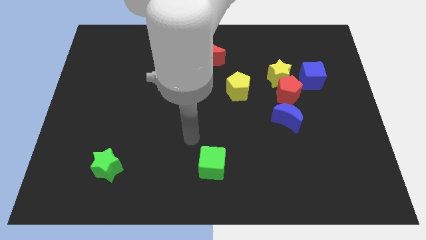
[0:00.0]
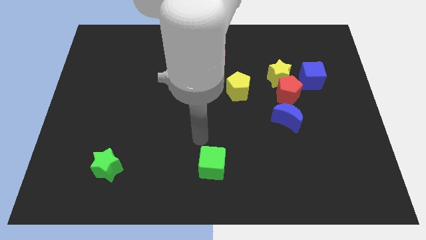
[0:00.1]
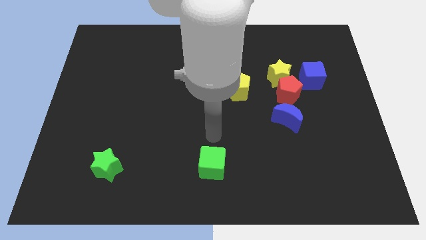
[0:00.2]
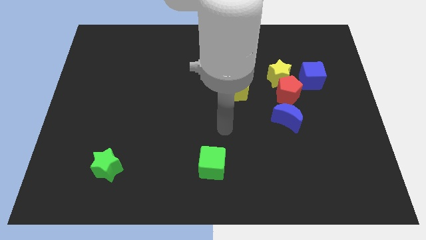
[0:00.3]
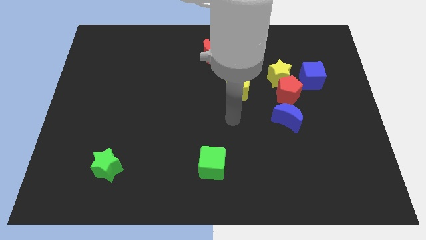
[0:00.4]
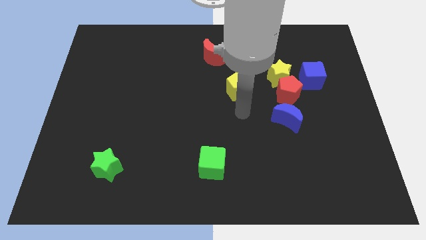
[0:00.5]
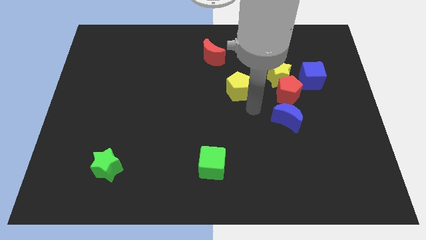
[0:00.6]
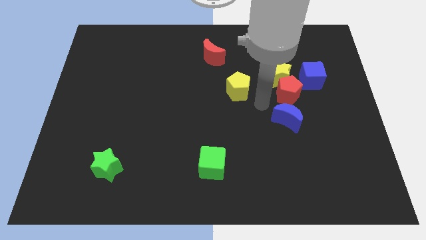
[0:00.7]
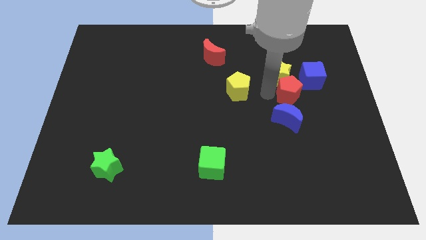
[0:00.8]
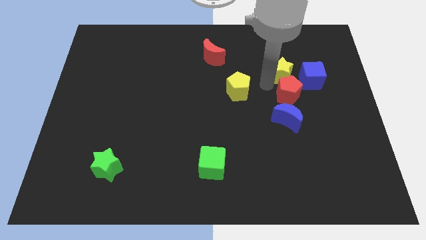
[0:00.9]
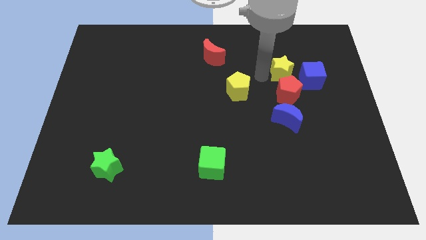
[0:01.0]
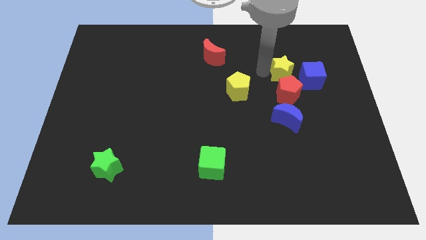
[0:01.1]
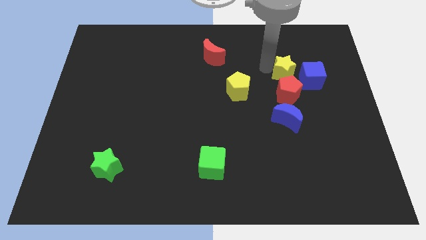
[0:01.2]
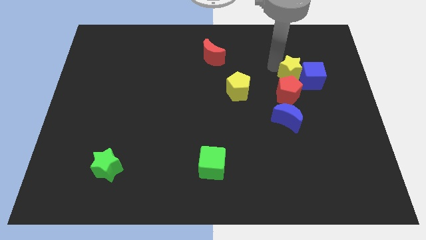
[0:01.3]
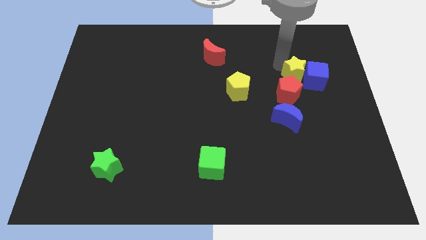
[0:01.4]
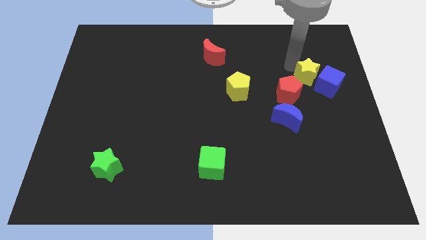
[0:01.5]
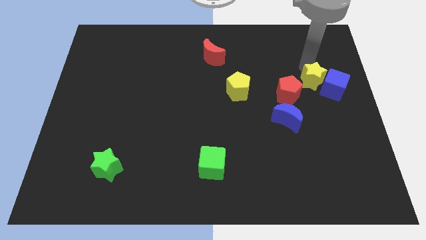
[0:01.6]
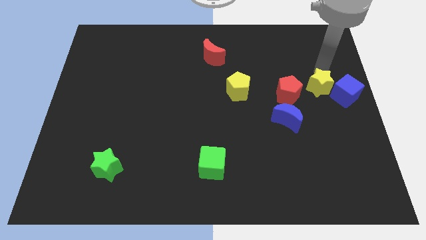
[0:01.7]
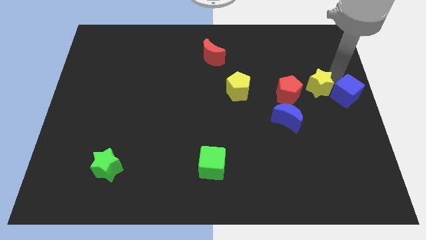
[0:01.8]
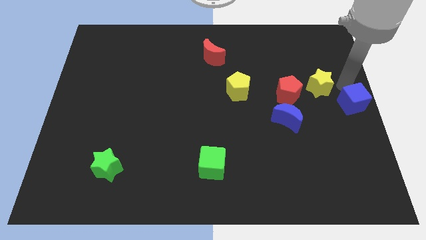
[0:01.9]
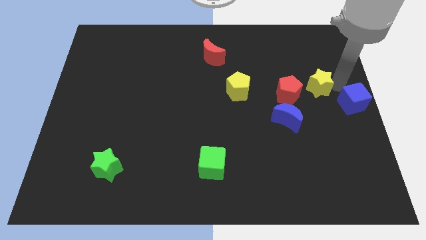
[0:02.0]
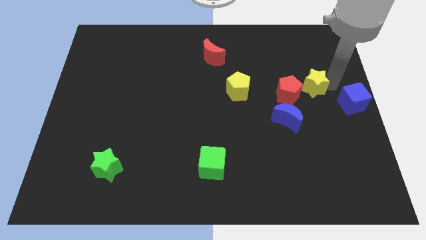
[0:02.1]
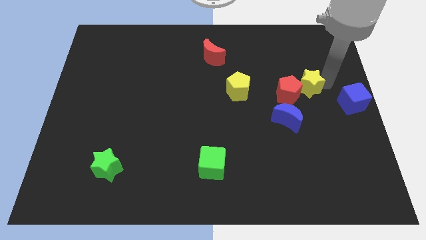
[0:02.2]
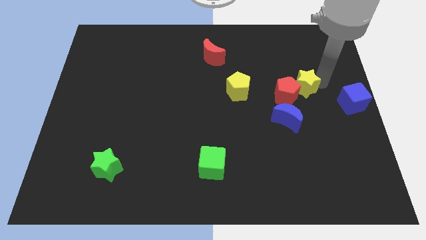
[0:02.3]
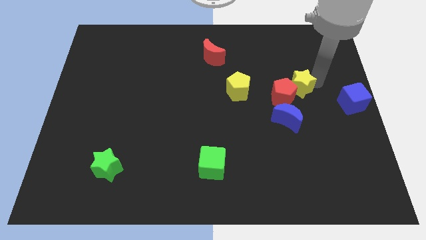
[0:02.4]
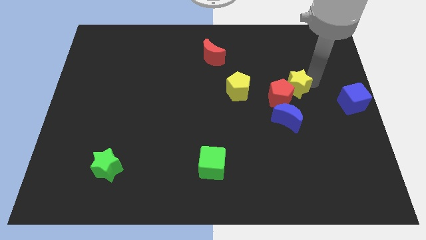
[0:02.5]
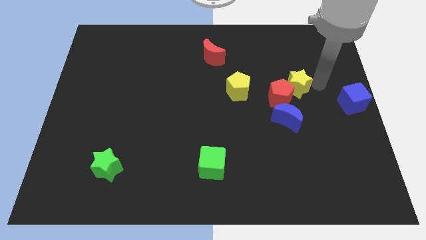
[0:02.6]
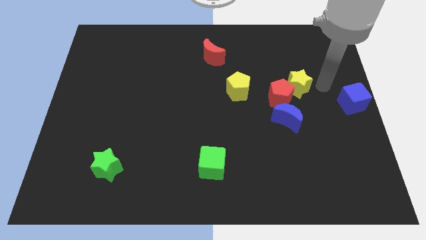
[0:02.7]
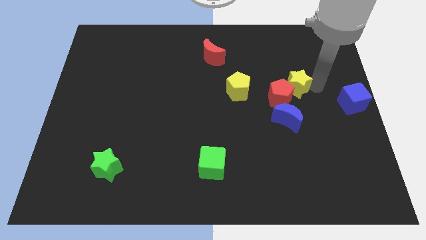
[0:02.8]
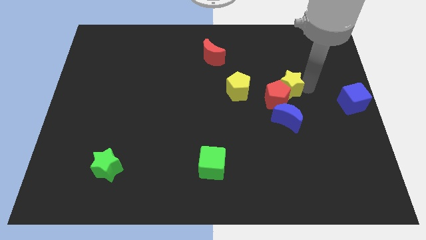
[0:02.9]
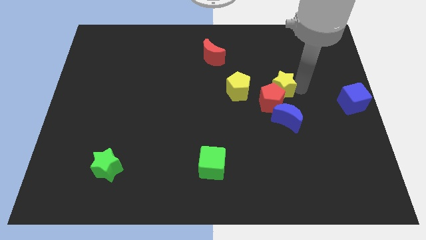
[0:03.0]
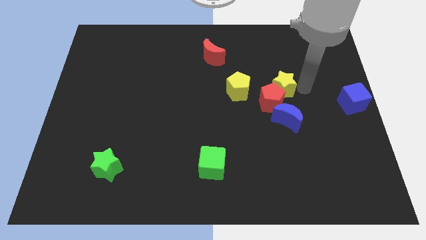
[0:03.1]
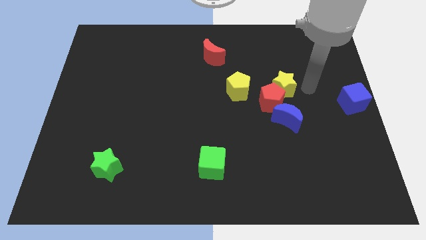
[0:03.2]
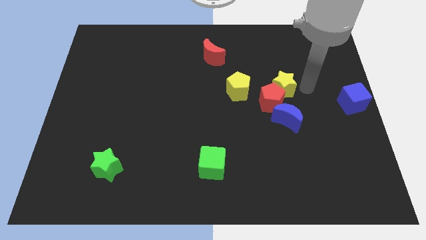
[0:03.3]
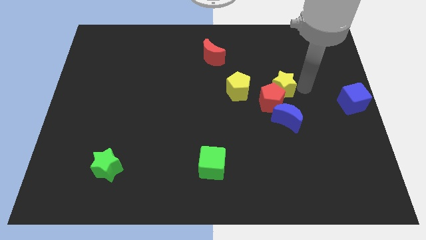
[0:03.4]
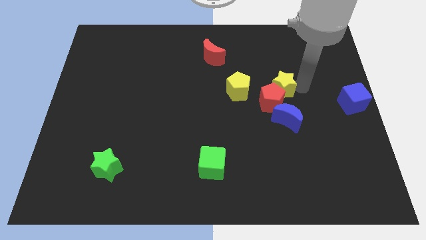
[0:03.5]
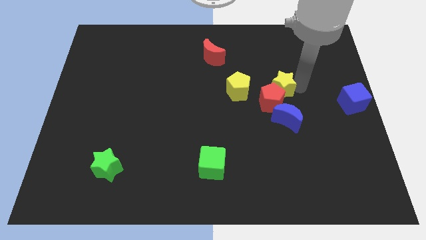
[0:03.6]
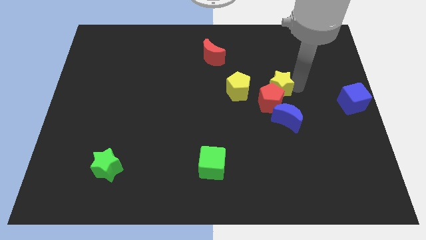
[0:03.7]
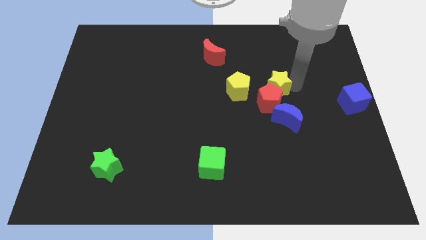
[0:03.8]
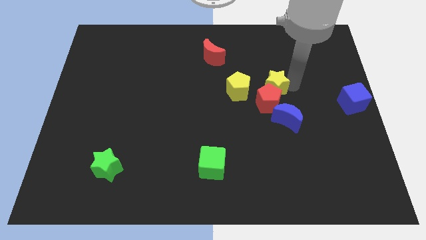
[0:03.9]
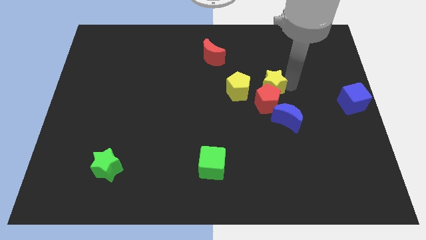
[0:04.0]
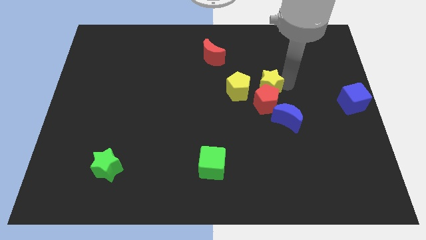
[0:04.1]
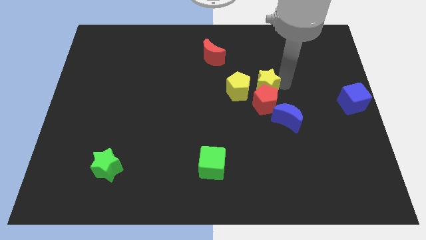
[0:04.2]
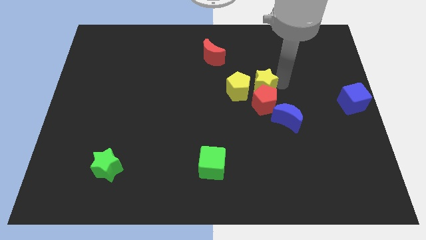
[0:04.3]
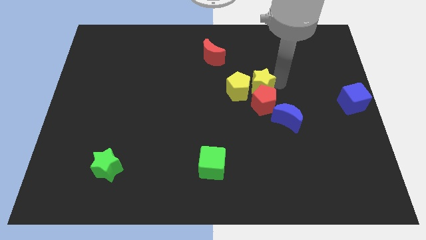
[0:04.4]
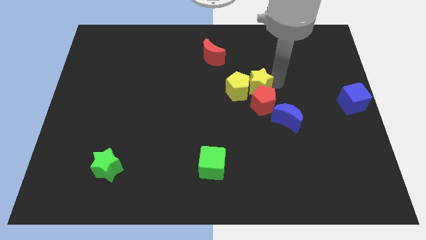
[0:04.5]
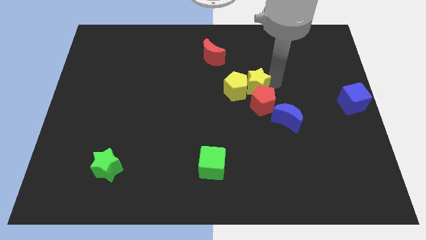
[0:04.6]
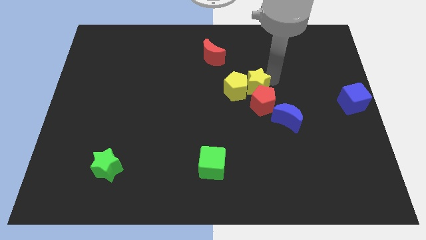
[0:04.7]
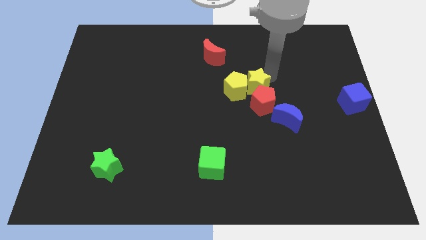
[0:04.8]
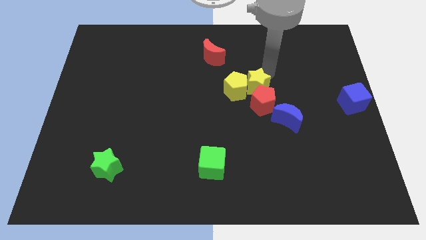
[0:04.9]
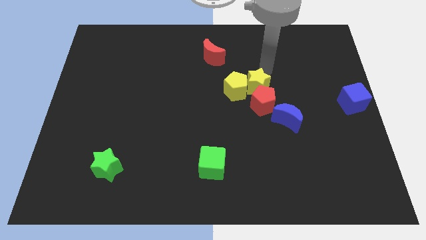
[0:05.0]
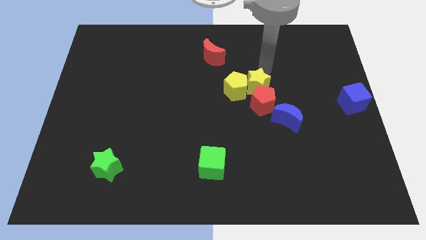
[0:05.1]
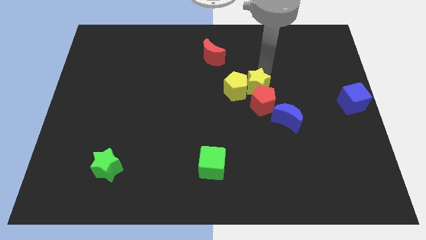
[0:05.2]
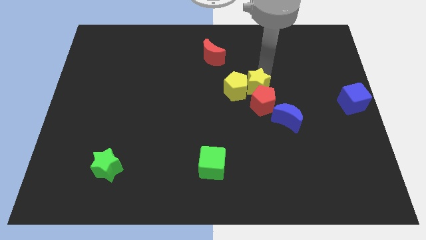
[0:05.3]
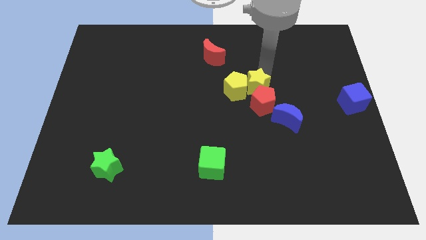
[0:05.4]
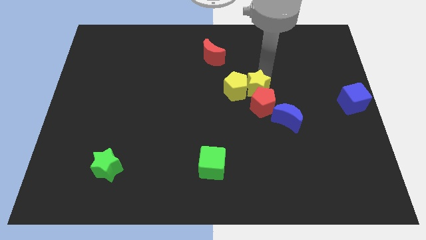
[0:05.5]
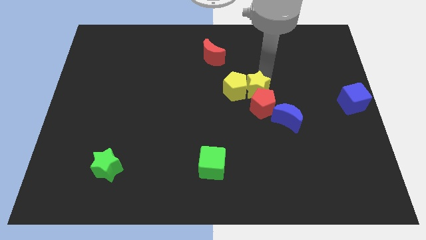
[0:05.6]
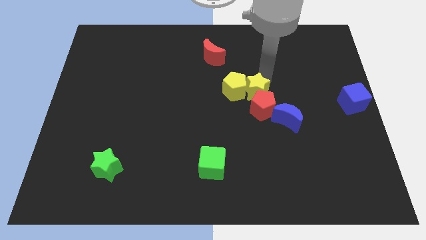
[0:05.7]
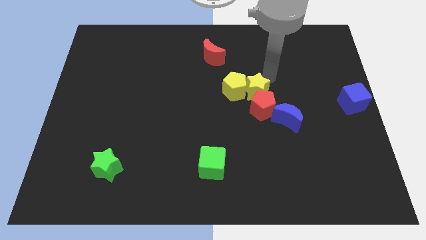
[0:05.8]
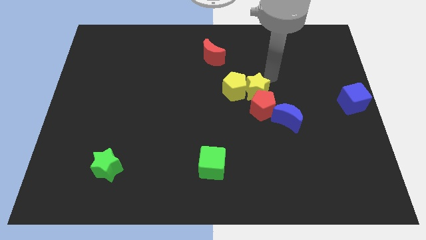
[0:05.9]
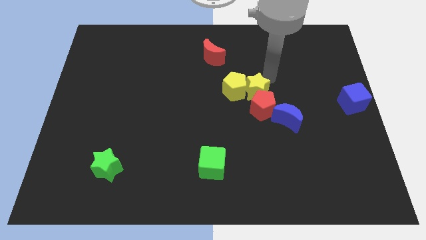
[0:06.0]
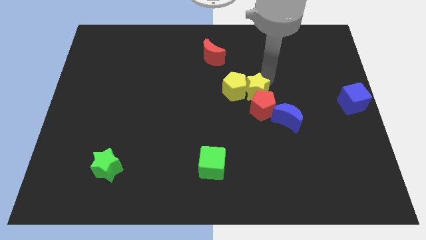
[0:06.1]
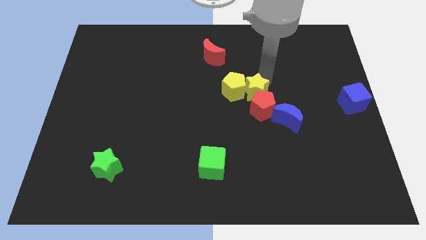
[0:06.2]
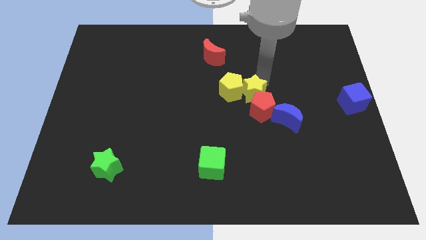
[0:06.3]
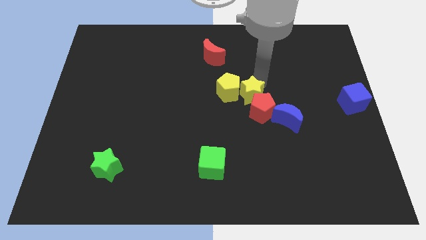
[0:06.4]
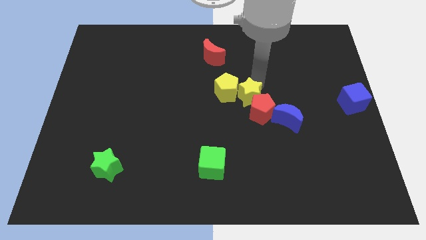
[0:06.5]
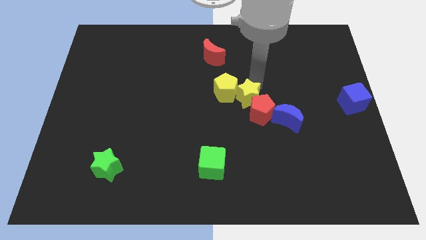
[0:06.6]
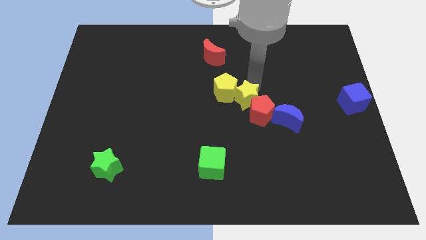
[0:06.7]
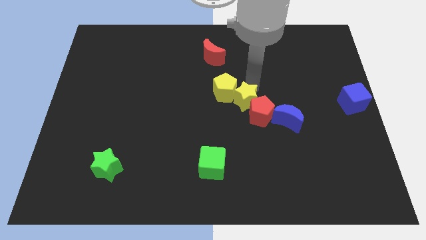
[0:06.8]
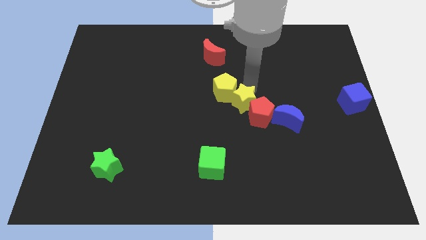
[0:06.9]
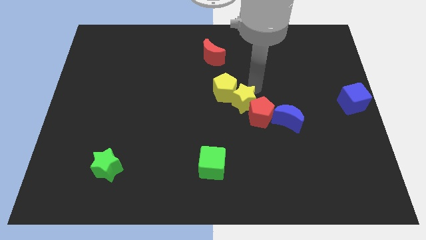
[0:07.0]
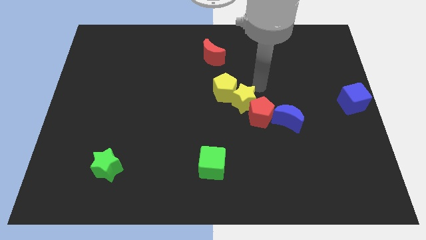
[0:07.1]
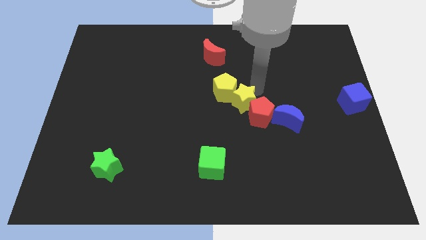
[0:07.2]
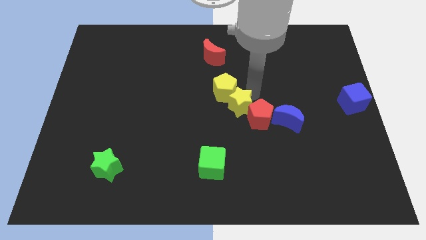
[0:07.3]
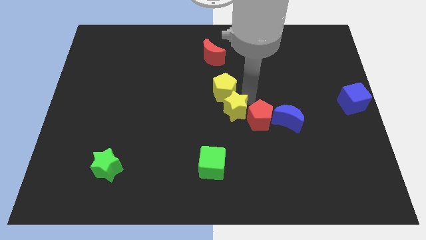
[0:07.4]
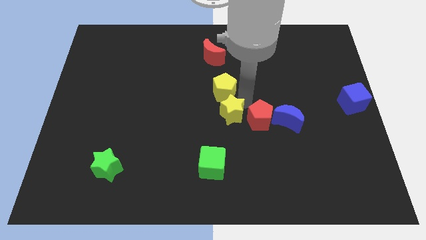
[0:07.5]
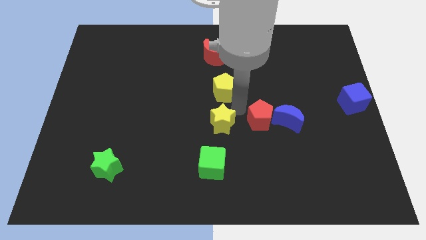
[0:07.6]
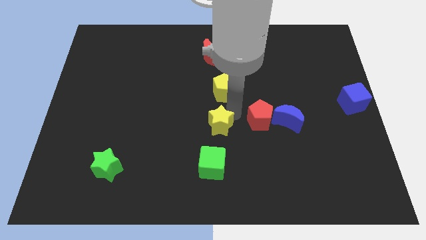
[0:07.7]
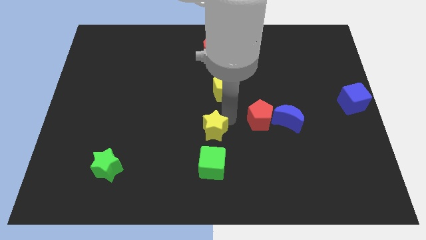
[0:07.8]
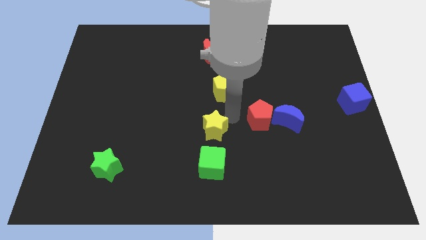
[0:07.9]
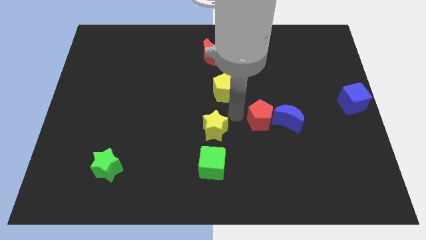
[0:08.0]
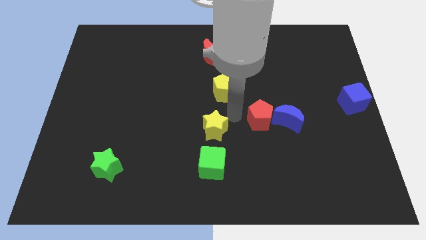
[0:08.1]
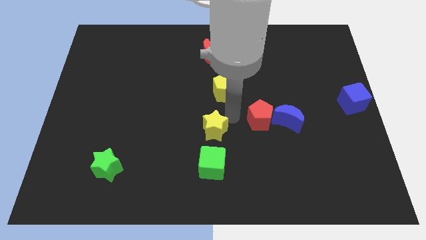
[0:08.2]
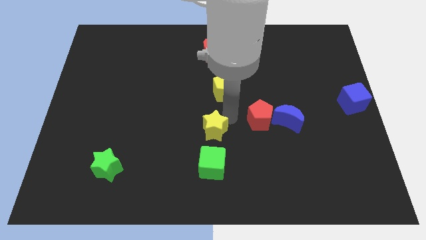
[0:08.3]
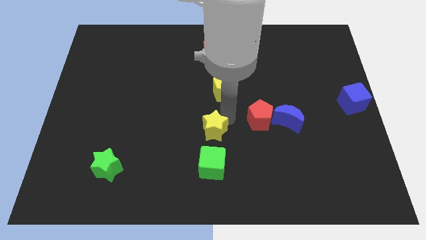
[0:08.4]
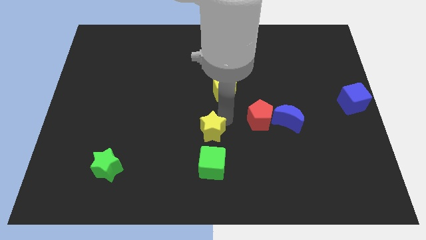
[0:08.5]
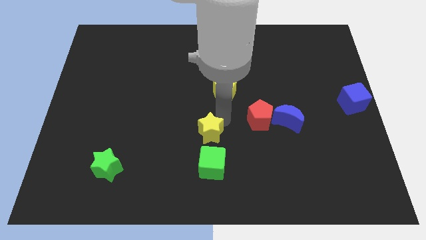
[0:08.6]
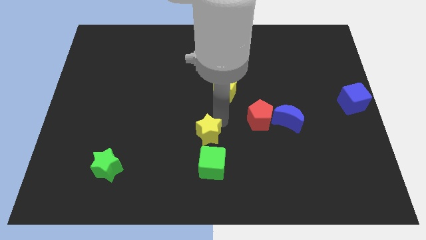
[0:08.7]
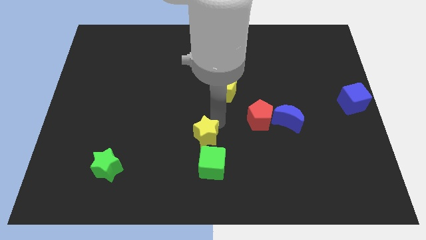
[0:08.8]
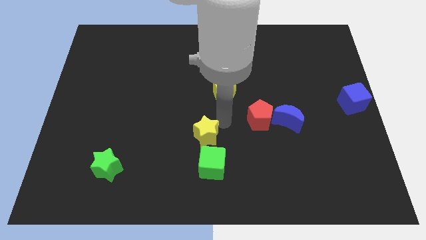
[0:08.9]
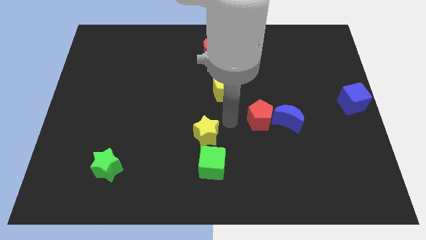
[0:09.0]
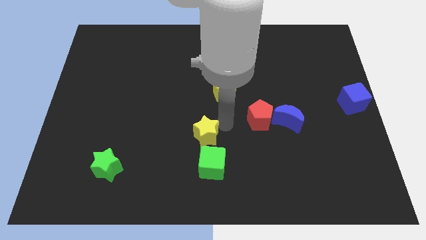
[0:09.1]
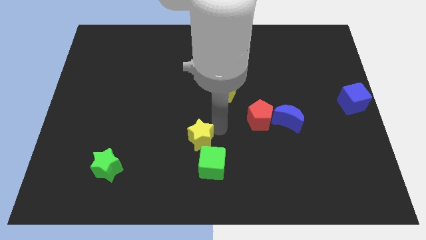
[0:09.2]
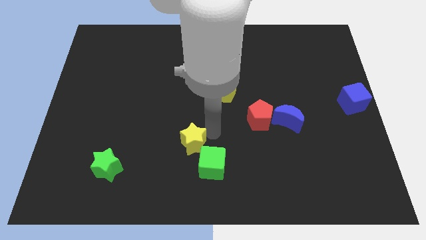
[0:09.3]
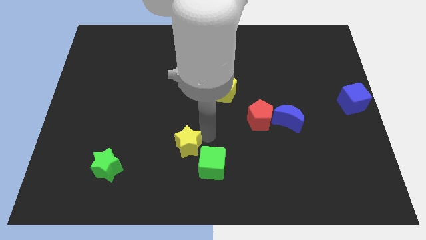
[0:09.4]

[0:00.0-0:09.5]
slide the yellow star to the left of the green cube
